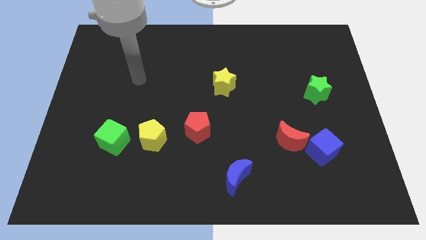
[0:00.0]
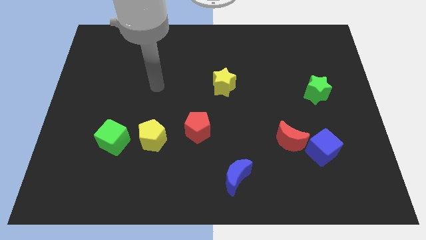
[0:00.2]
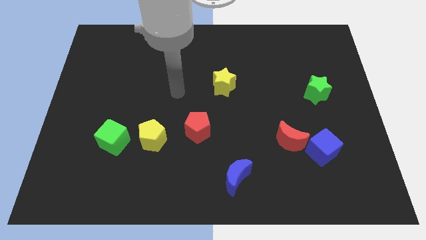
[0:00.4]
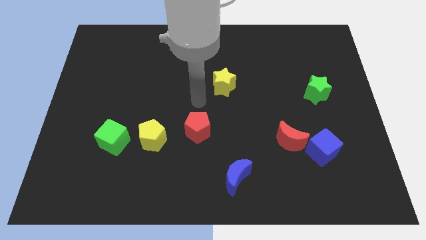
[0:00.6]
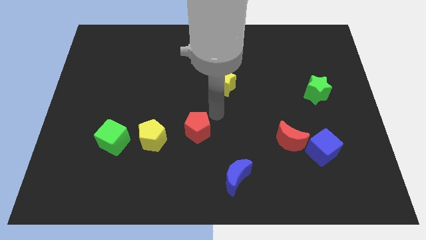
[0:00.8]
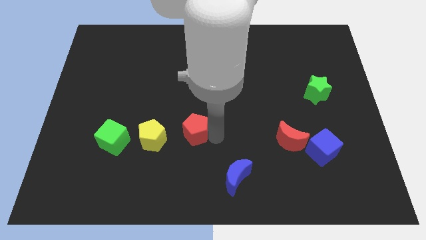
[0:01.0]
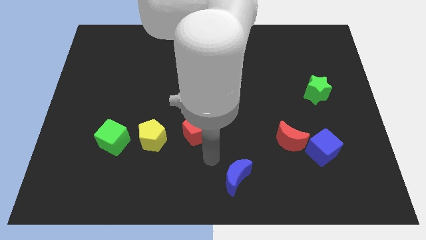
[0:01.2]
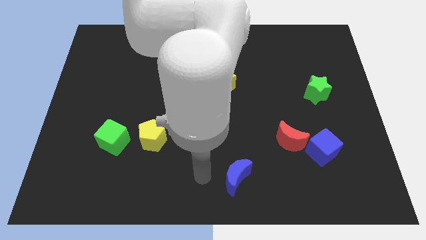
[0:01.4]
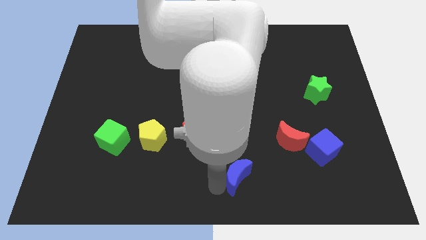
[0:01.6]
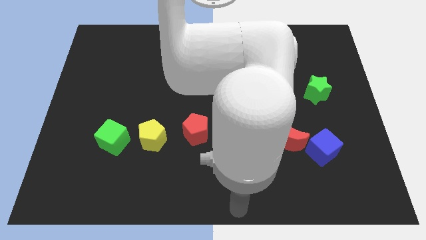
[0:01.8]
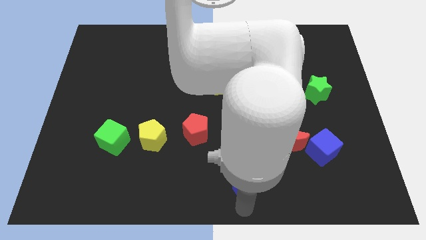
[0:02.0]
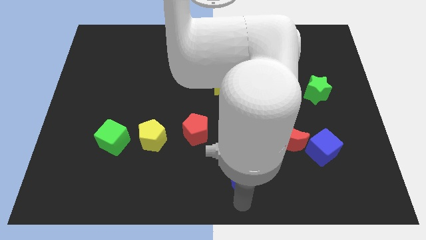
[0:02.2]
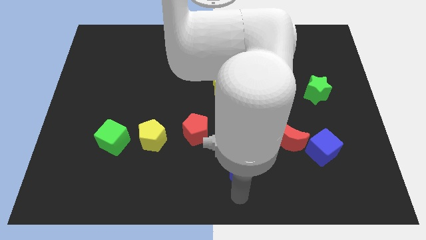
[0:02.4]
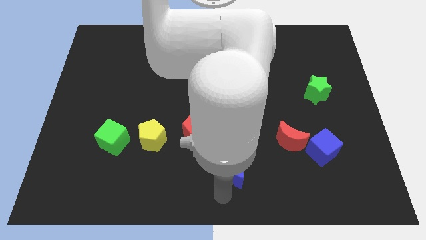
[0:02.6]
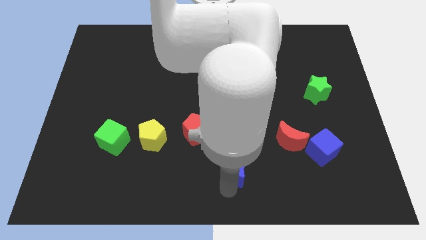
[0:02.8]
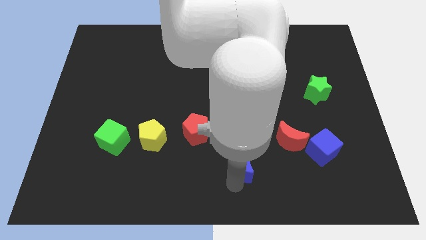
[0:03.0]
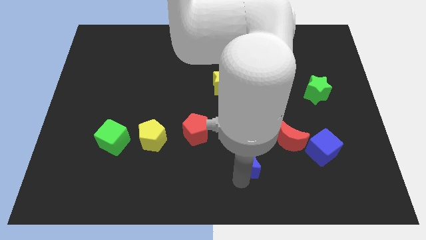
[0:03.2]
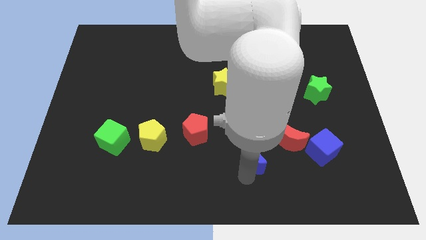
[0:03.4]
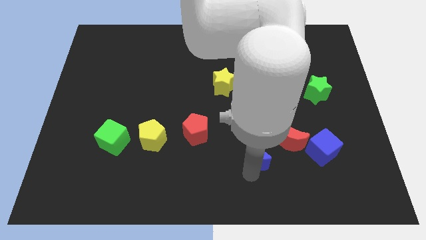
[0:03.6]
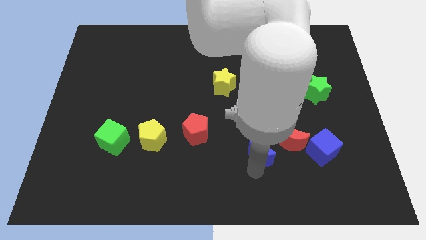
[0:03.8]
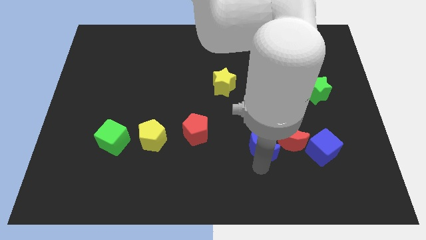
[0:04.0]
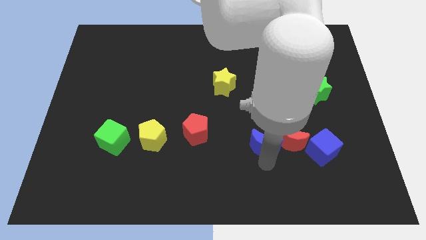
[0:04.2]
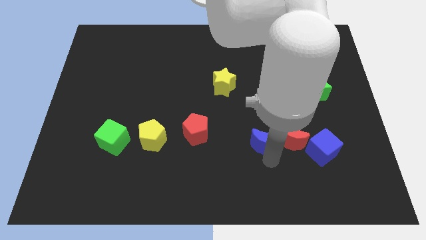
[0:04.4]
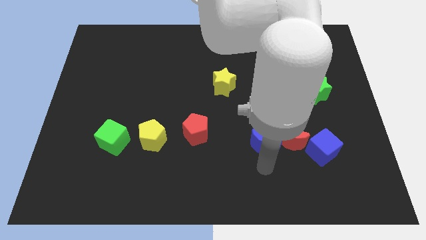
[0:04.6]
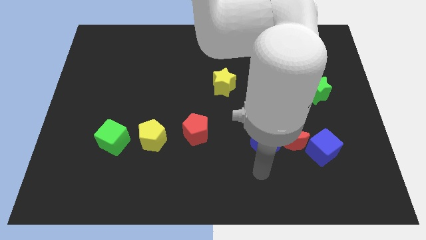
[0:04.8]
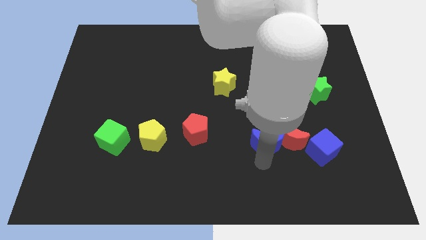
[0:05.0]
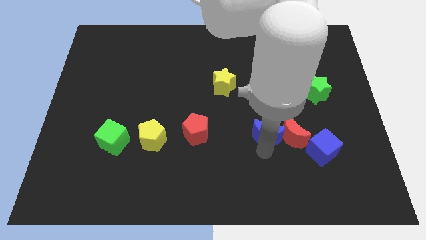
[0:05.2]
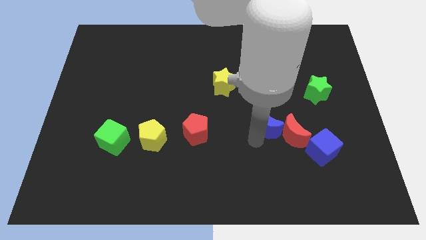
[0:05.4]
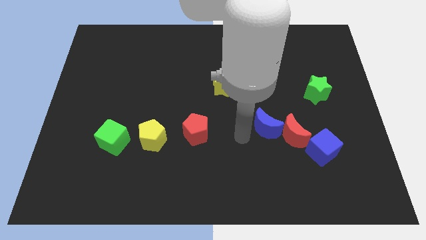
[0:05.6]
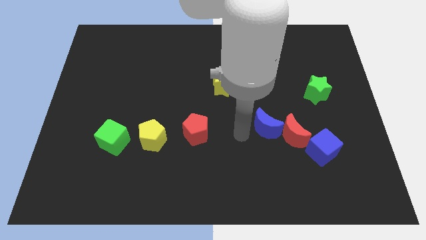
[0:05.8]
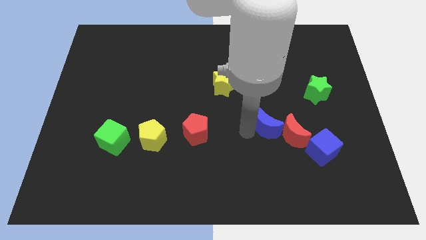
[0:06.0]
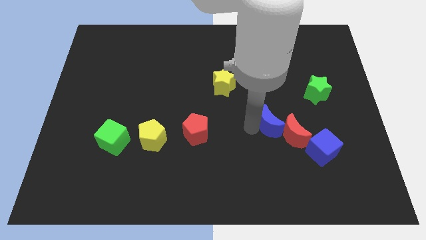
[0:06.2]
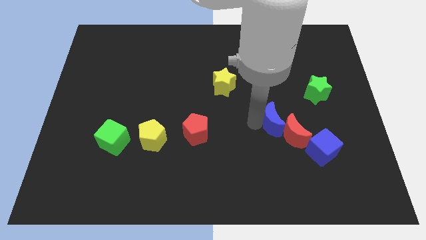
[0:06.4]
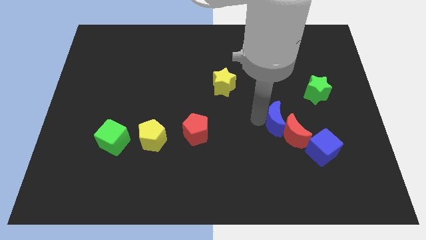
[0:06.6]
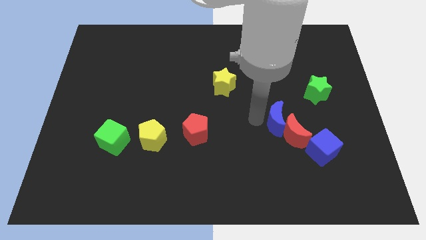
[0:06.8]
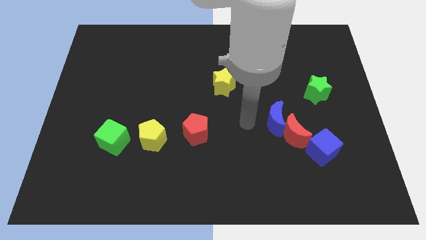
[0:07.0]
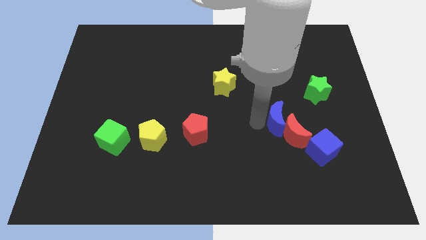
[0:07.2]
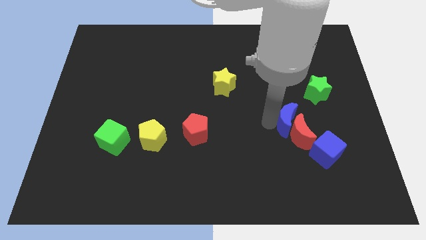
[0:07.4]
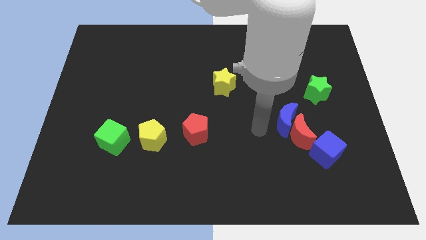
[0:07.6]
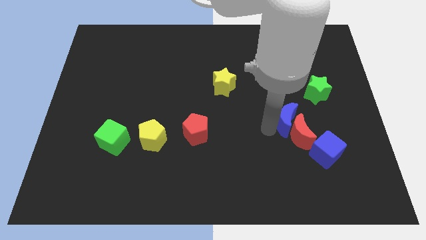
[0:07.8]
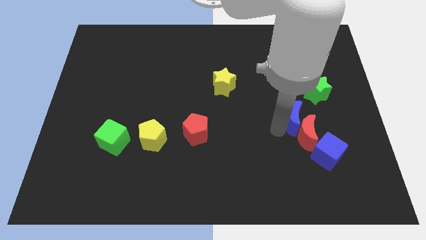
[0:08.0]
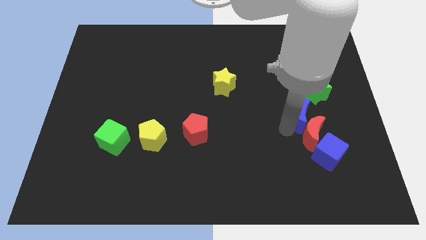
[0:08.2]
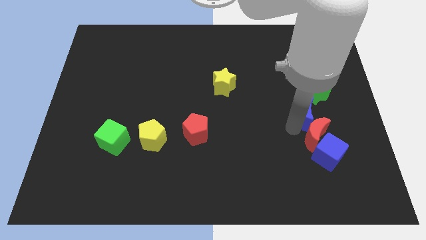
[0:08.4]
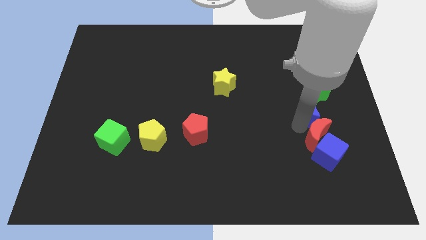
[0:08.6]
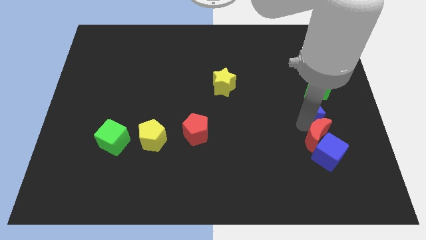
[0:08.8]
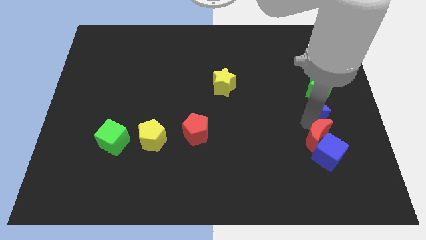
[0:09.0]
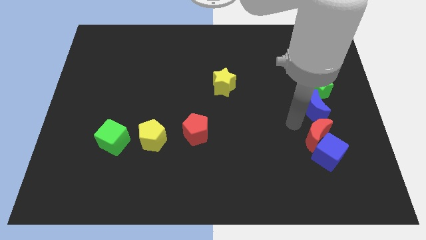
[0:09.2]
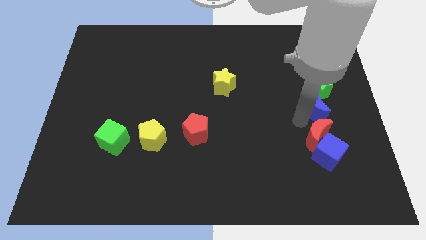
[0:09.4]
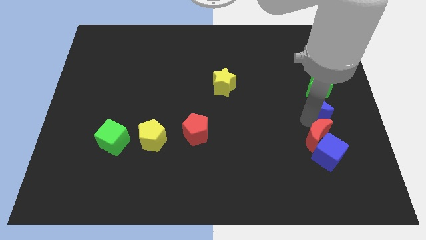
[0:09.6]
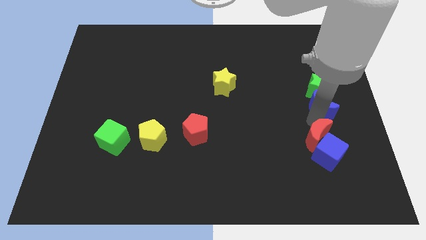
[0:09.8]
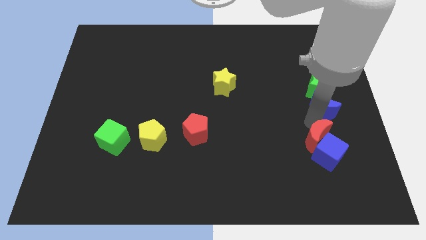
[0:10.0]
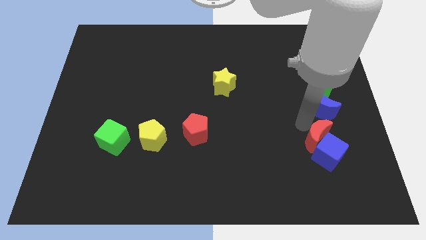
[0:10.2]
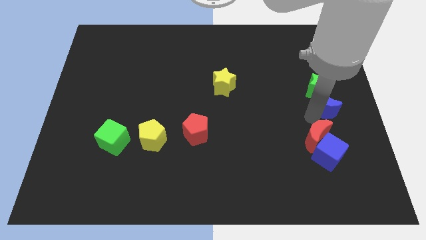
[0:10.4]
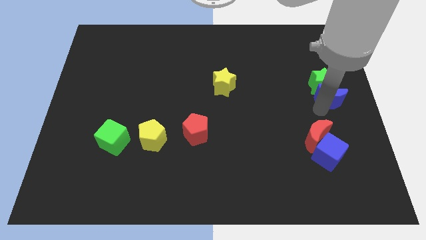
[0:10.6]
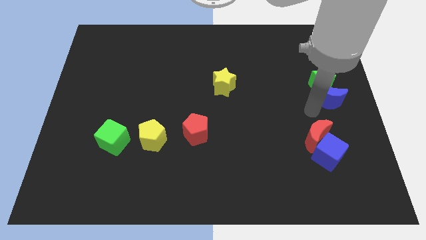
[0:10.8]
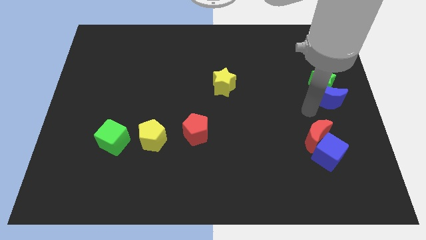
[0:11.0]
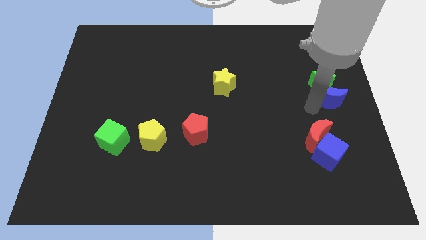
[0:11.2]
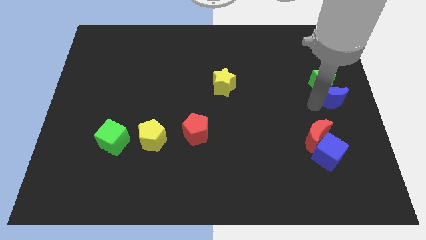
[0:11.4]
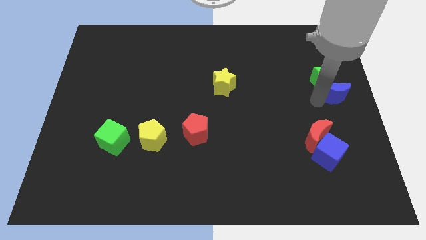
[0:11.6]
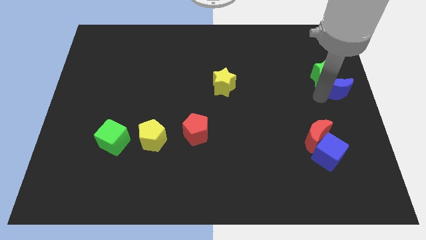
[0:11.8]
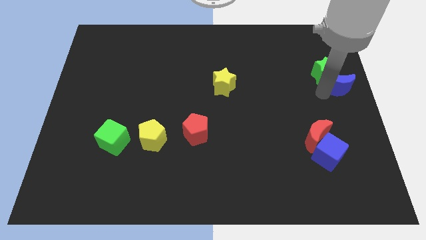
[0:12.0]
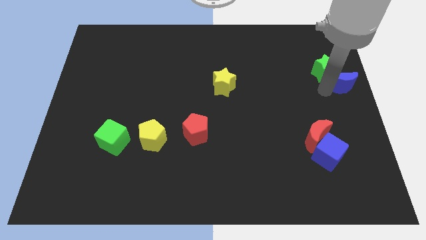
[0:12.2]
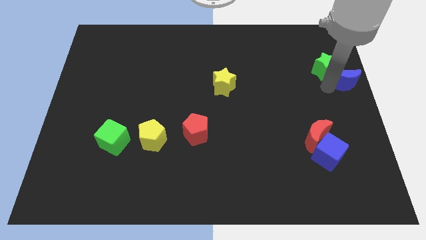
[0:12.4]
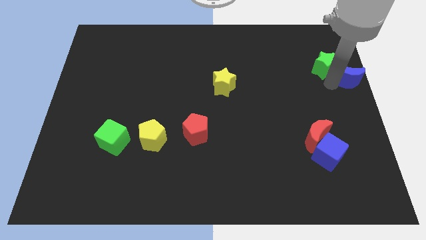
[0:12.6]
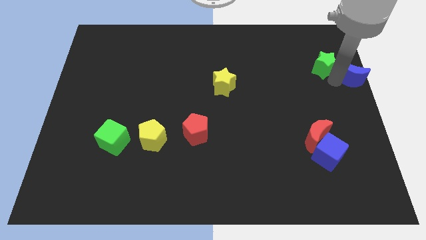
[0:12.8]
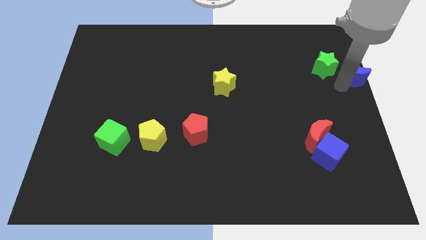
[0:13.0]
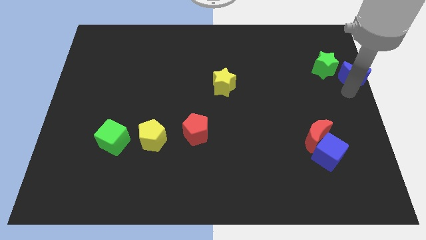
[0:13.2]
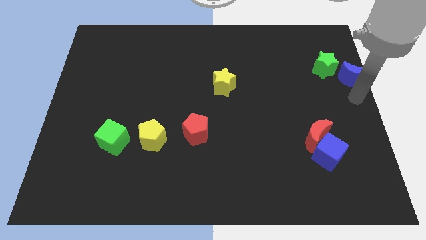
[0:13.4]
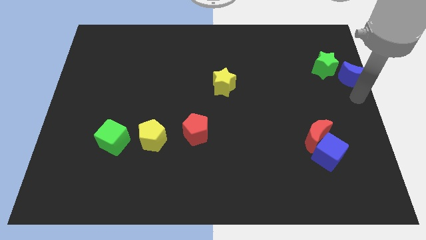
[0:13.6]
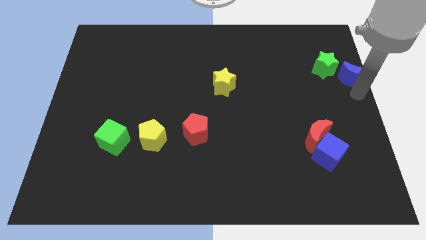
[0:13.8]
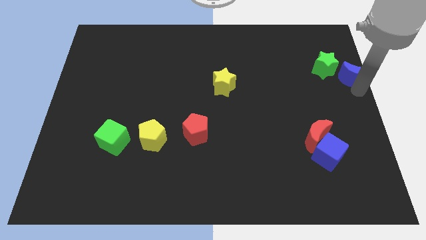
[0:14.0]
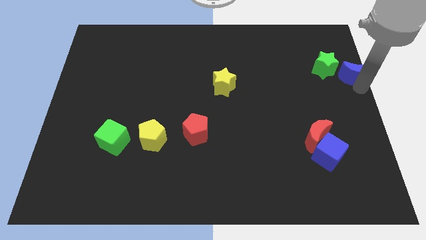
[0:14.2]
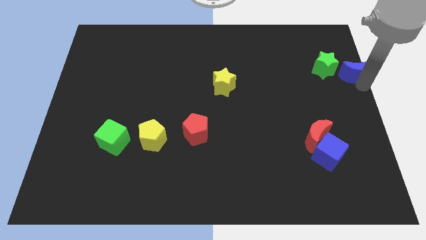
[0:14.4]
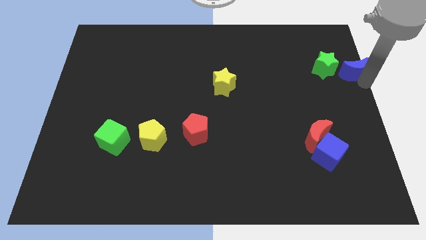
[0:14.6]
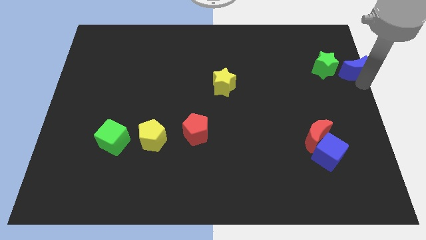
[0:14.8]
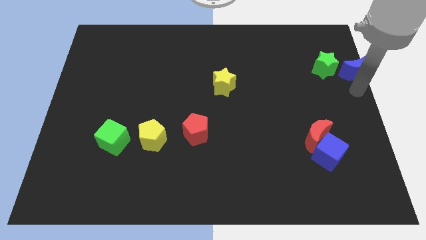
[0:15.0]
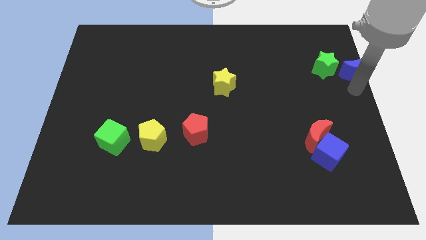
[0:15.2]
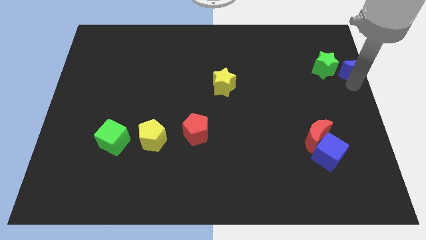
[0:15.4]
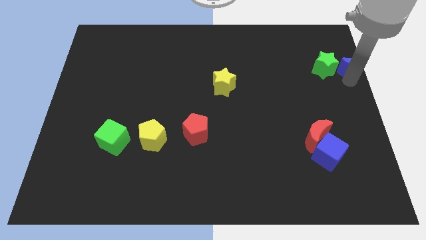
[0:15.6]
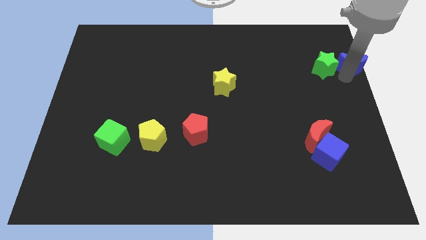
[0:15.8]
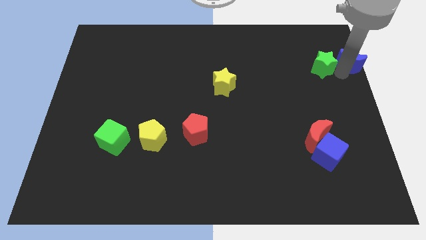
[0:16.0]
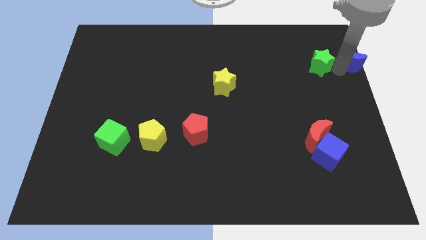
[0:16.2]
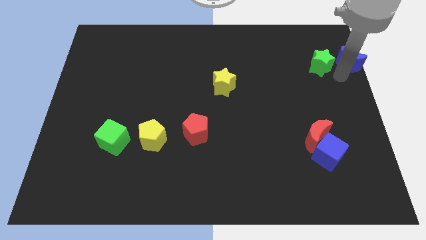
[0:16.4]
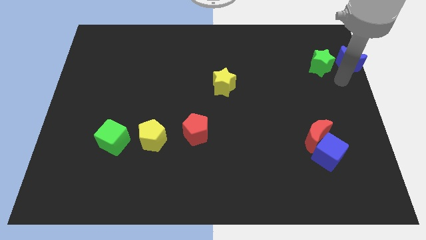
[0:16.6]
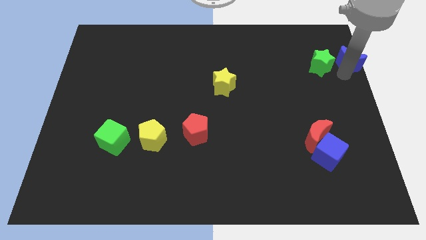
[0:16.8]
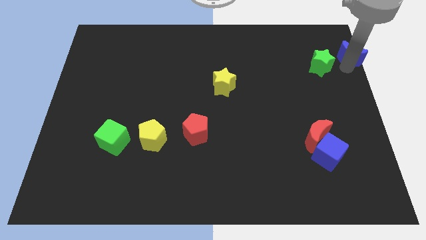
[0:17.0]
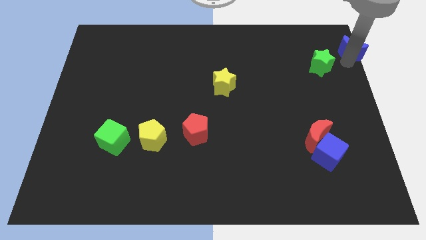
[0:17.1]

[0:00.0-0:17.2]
move the blue moon to the upper right corner
